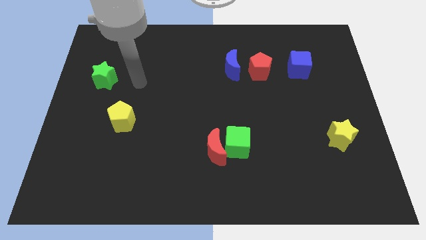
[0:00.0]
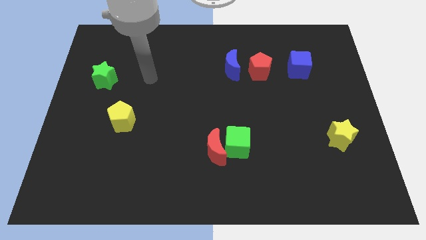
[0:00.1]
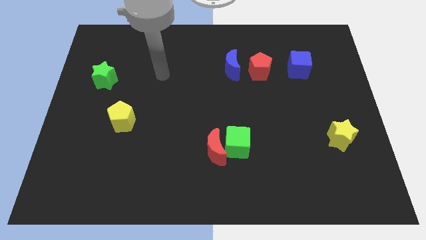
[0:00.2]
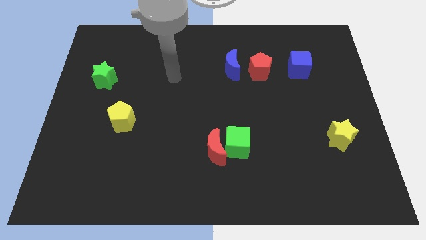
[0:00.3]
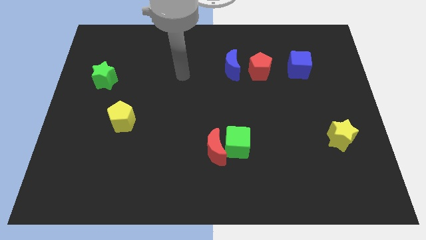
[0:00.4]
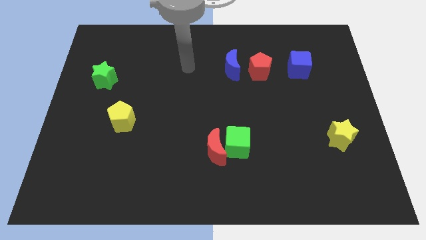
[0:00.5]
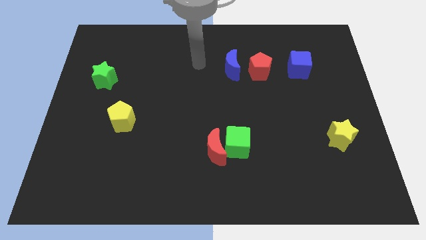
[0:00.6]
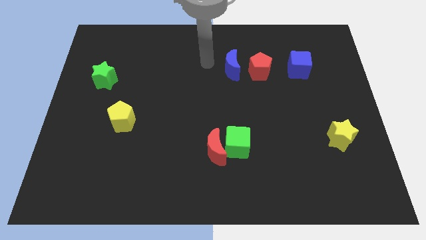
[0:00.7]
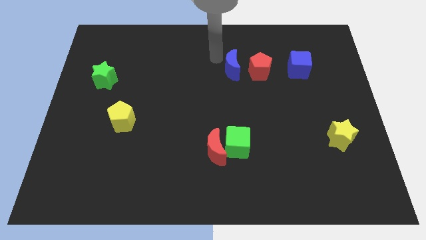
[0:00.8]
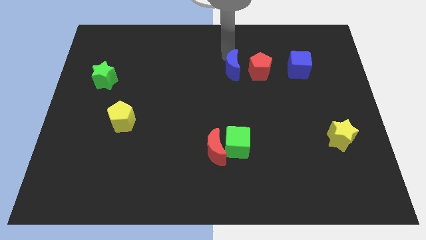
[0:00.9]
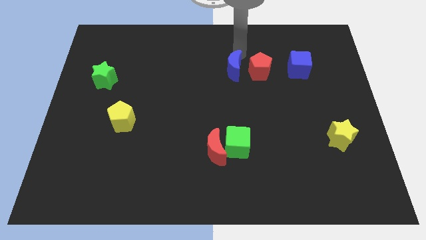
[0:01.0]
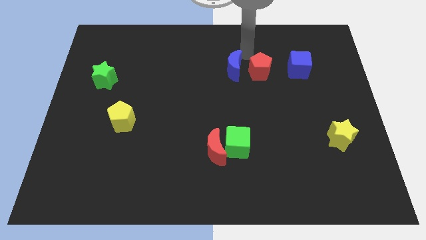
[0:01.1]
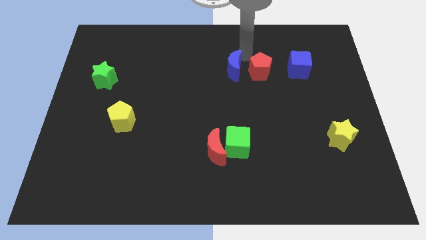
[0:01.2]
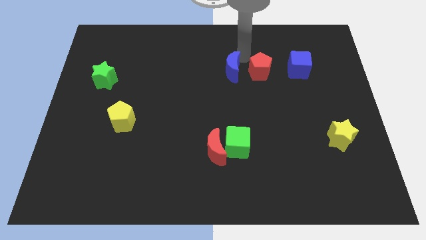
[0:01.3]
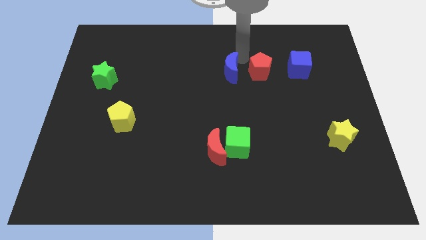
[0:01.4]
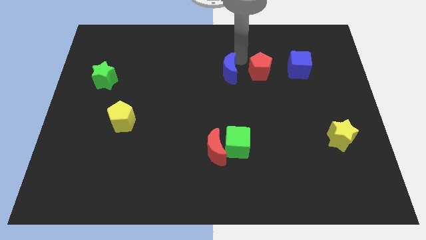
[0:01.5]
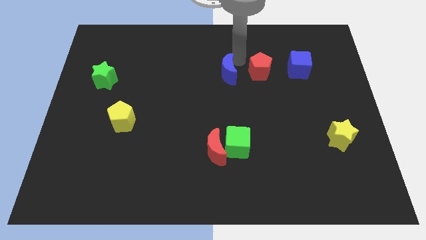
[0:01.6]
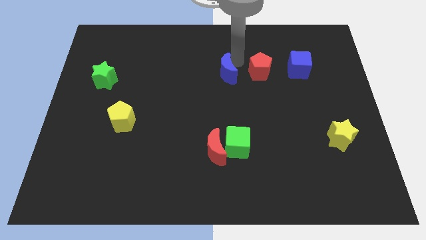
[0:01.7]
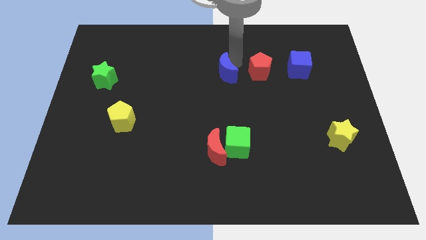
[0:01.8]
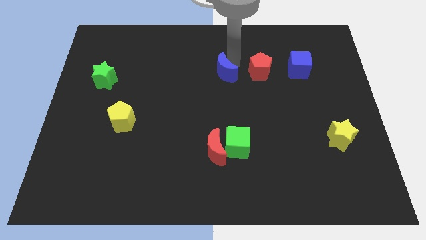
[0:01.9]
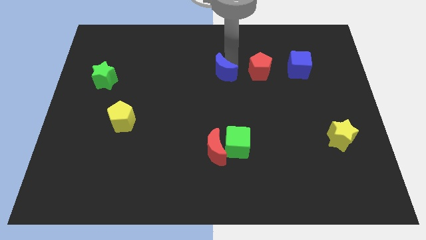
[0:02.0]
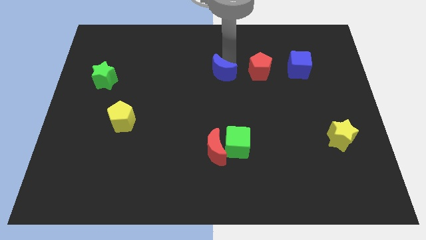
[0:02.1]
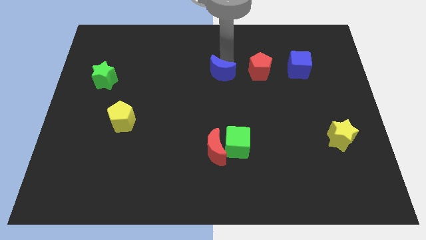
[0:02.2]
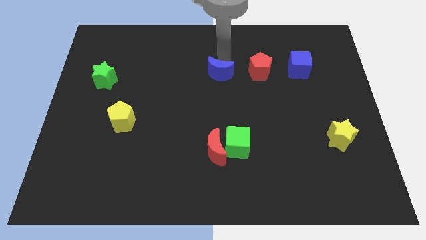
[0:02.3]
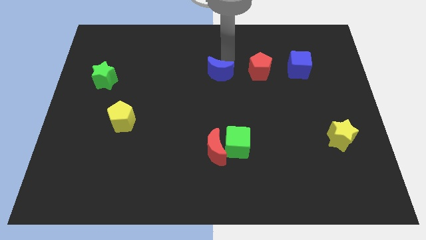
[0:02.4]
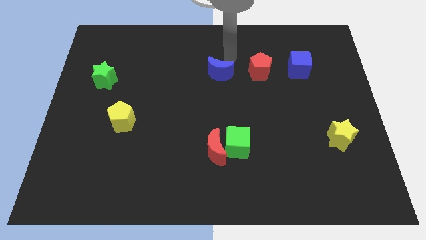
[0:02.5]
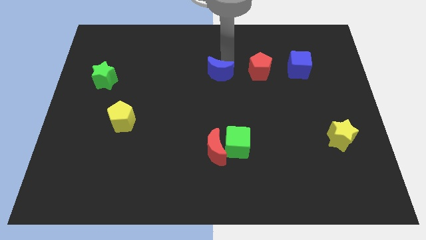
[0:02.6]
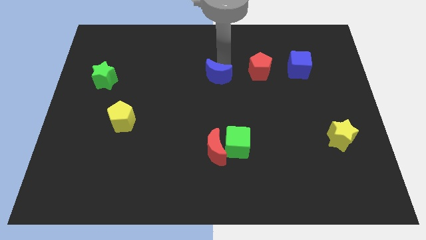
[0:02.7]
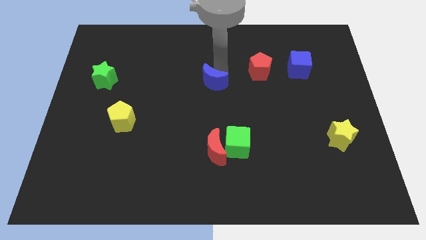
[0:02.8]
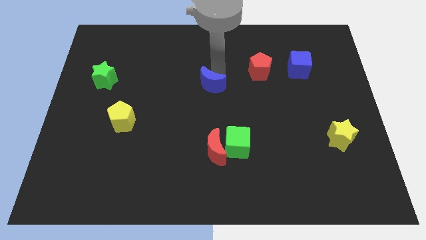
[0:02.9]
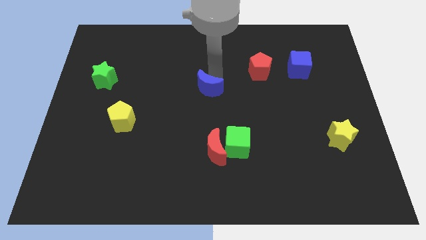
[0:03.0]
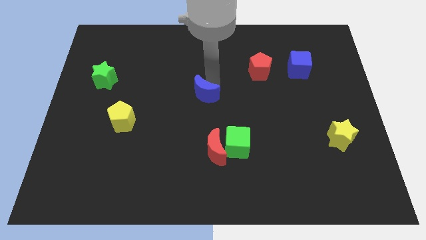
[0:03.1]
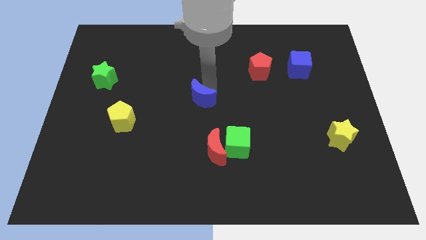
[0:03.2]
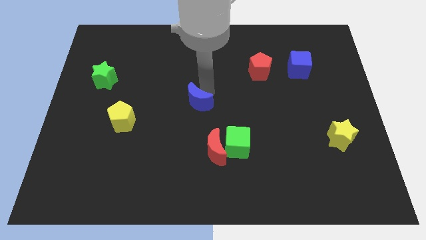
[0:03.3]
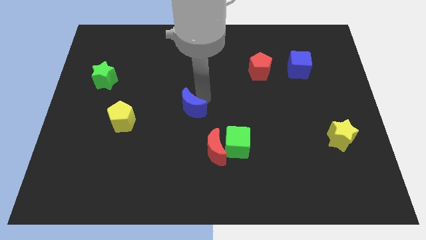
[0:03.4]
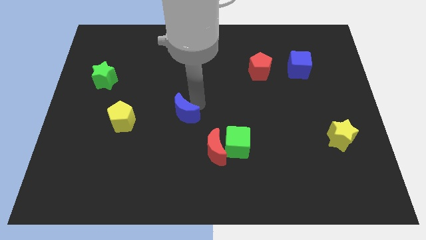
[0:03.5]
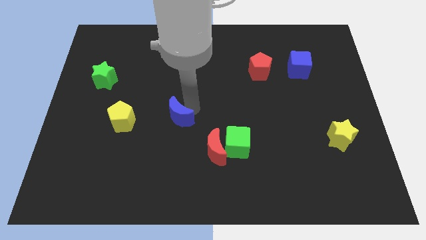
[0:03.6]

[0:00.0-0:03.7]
move the blue moon down and then to the left

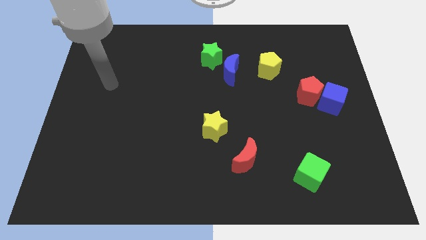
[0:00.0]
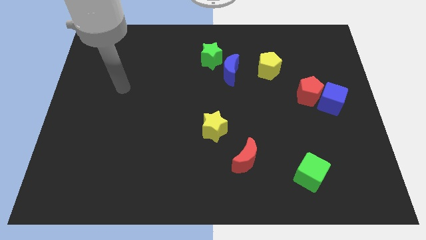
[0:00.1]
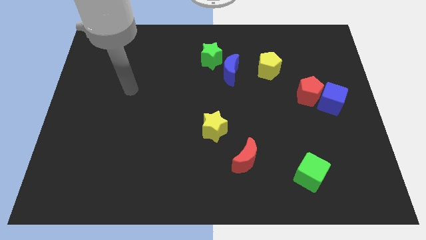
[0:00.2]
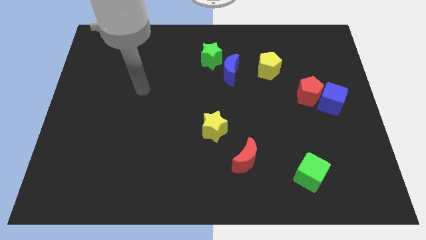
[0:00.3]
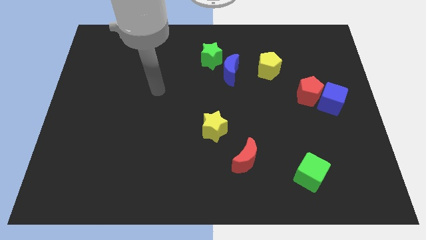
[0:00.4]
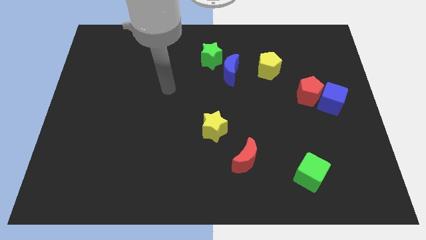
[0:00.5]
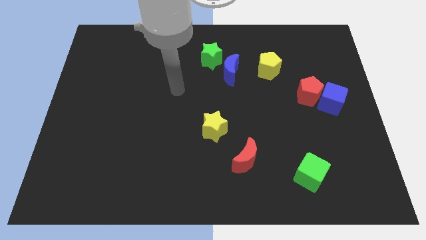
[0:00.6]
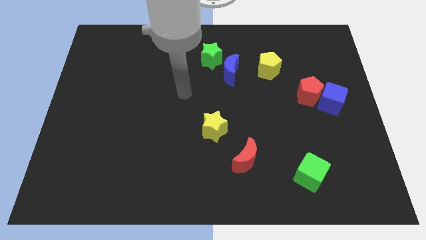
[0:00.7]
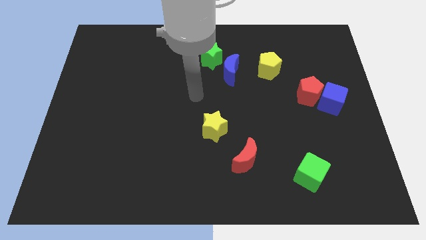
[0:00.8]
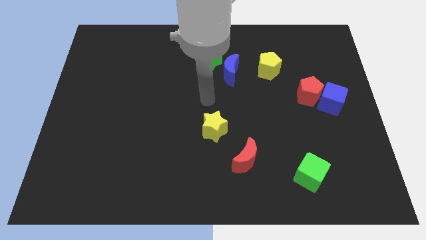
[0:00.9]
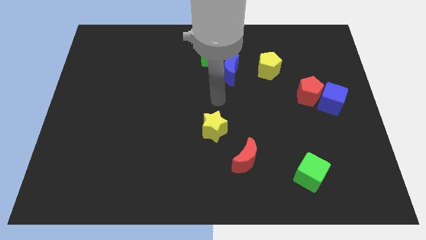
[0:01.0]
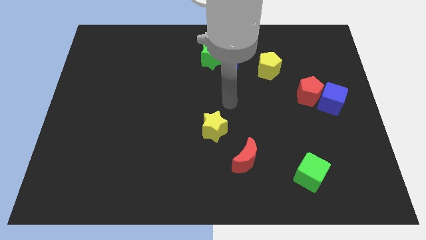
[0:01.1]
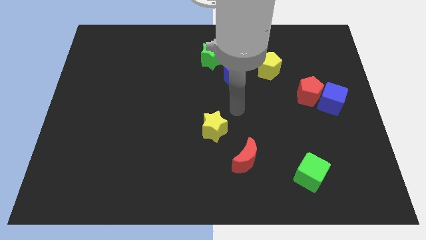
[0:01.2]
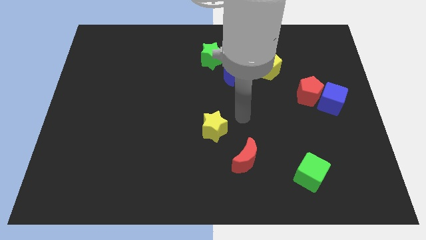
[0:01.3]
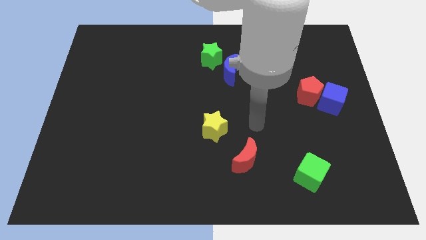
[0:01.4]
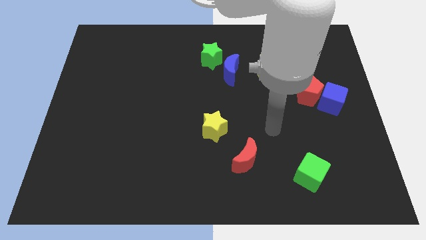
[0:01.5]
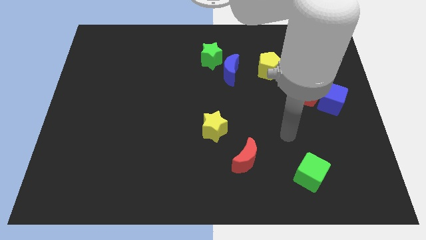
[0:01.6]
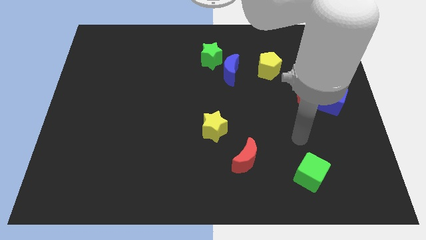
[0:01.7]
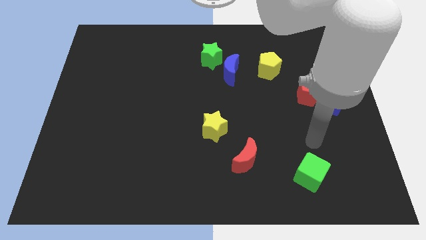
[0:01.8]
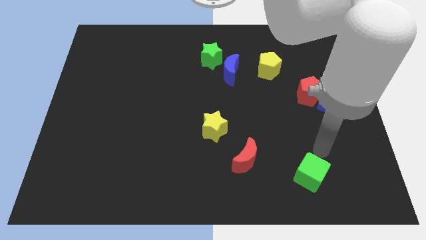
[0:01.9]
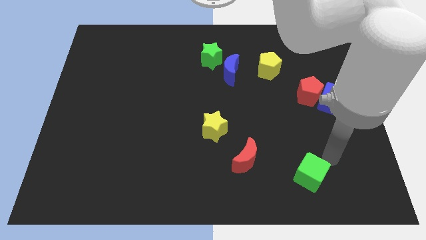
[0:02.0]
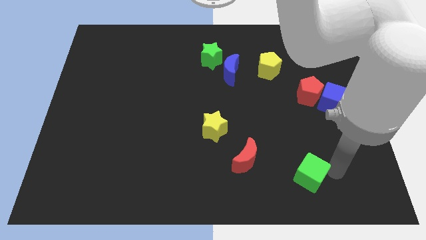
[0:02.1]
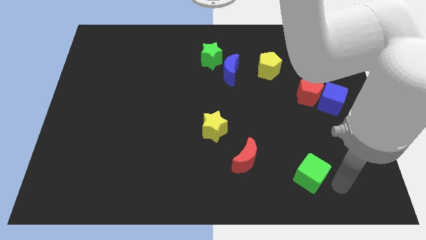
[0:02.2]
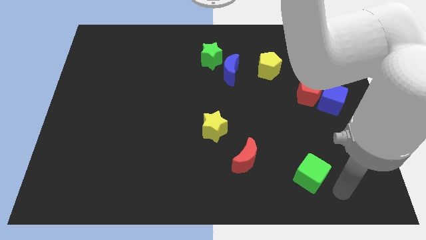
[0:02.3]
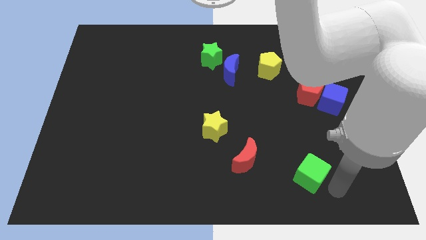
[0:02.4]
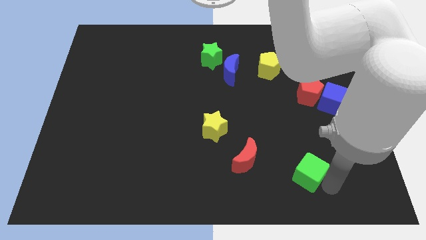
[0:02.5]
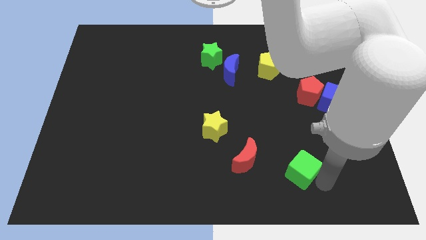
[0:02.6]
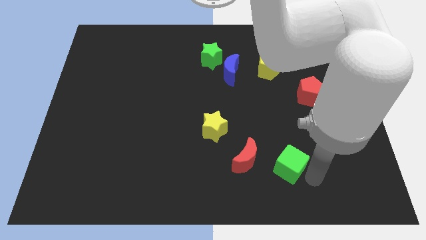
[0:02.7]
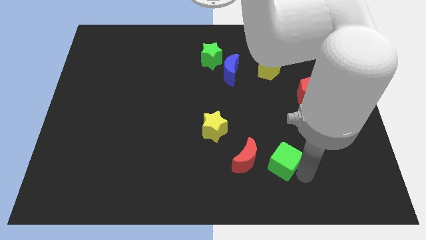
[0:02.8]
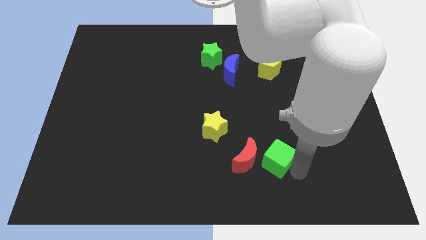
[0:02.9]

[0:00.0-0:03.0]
move the green cube up and then to the left a little

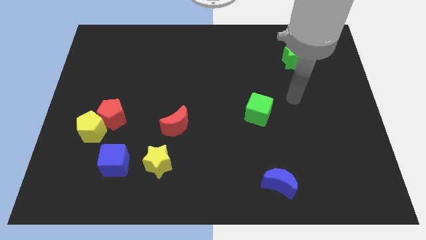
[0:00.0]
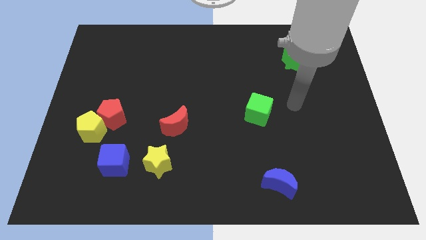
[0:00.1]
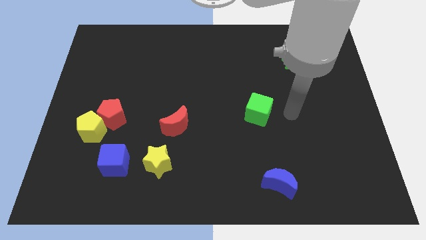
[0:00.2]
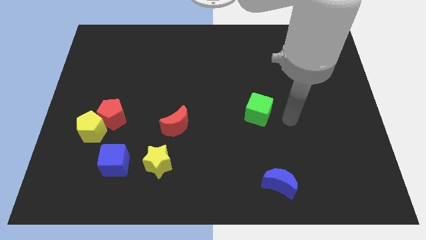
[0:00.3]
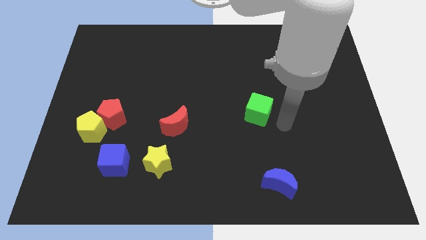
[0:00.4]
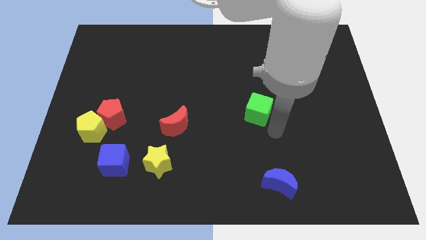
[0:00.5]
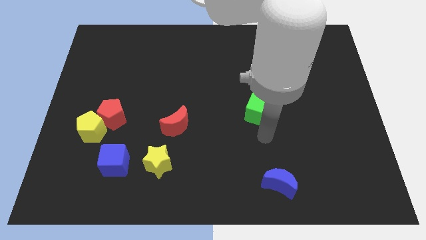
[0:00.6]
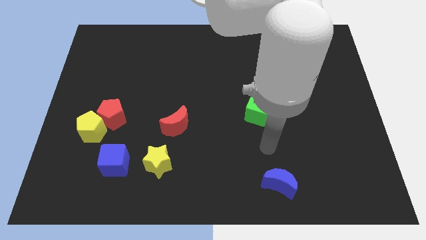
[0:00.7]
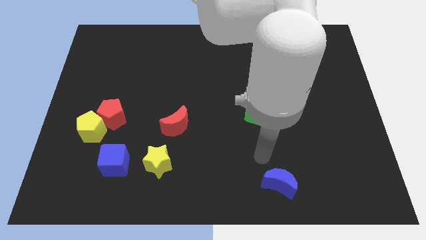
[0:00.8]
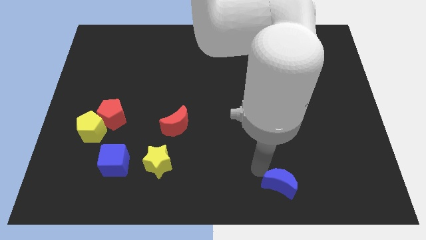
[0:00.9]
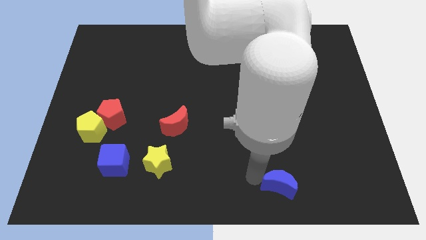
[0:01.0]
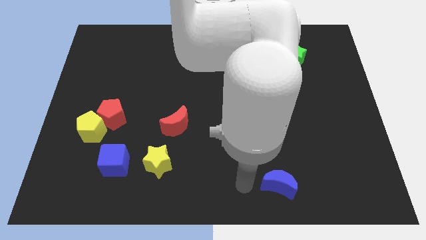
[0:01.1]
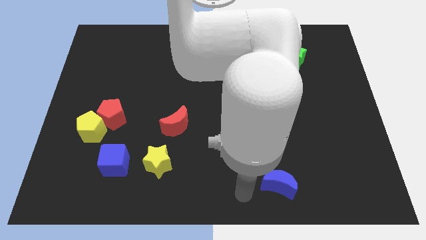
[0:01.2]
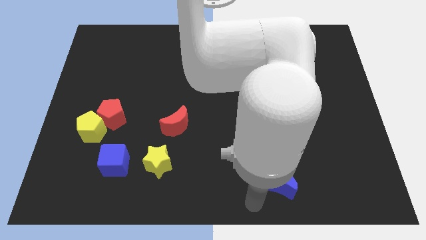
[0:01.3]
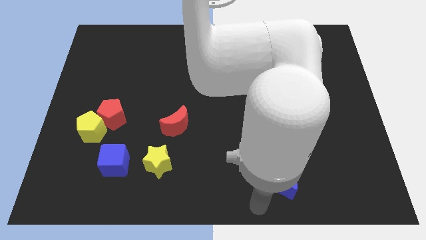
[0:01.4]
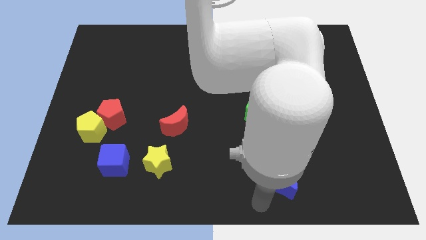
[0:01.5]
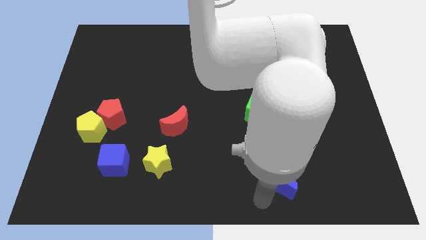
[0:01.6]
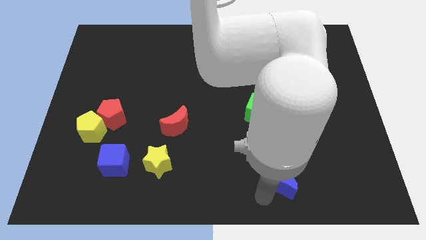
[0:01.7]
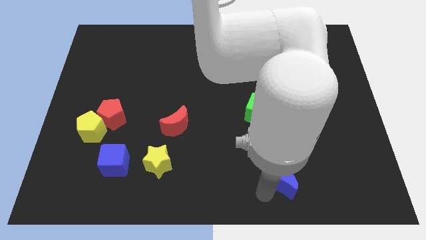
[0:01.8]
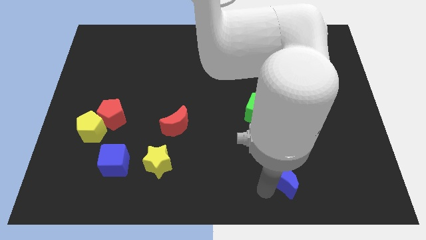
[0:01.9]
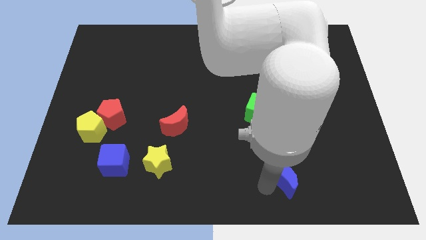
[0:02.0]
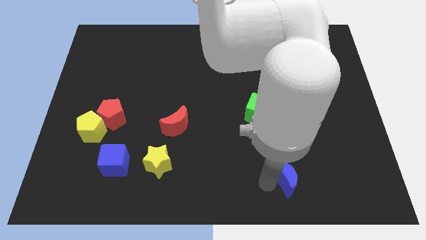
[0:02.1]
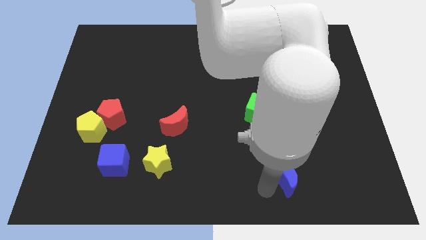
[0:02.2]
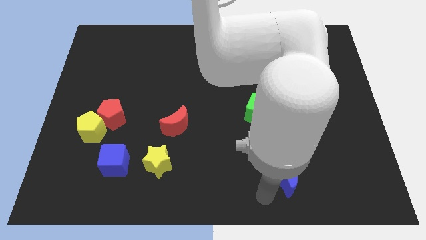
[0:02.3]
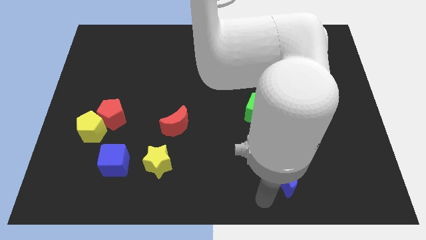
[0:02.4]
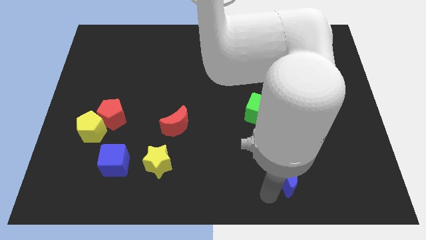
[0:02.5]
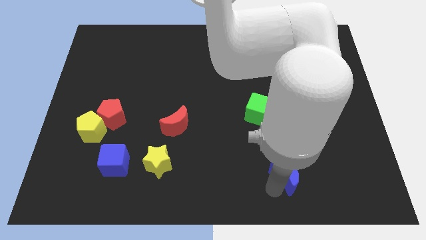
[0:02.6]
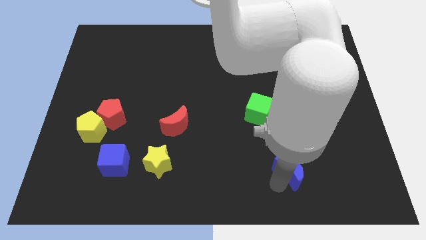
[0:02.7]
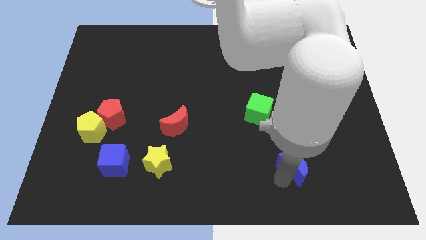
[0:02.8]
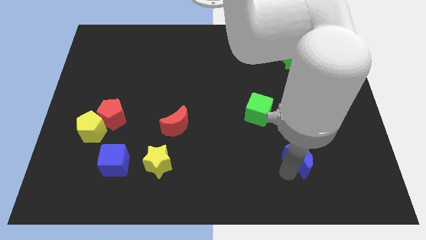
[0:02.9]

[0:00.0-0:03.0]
push the blue moon up and then to the right a little bit
